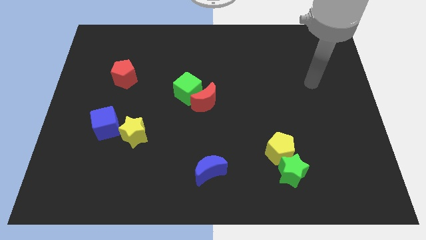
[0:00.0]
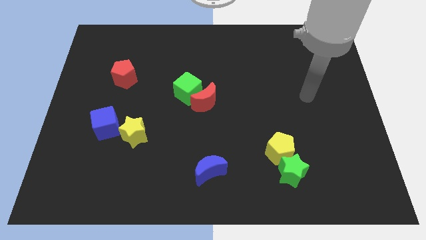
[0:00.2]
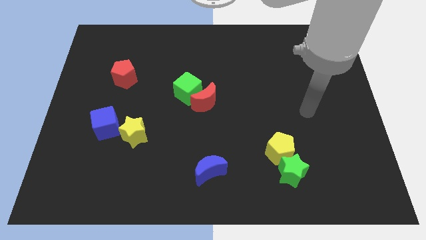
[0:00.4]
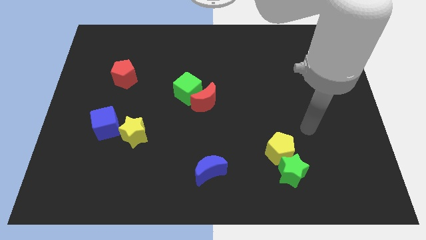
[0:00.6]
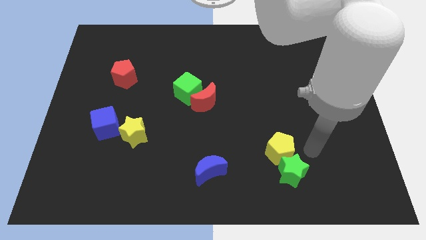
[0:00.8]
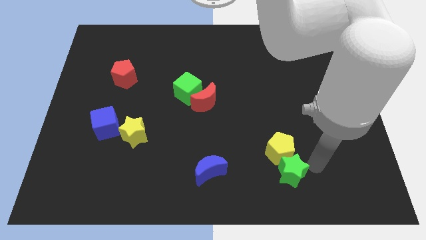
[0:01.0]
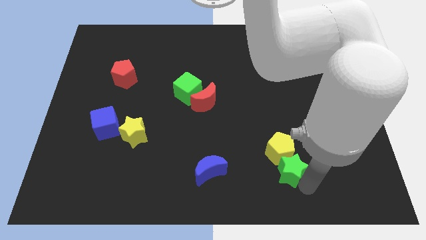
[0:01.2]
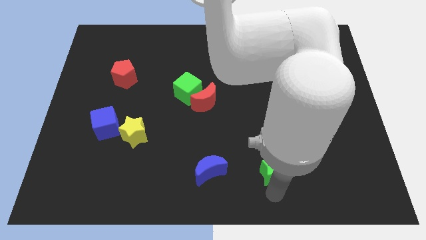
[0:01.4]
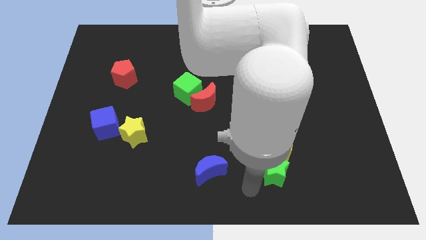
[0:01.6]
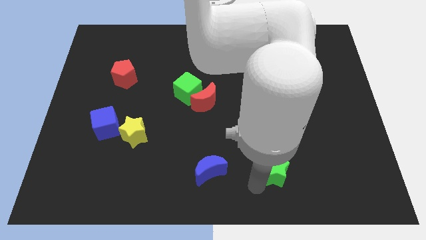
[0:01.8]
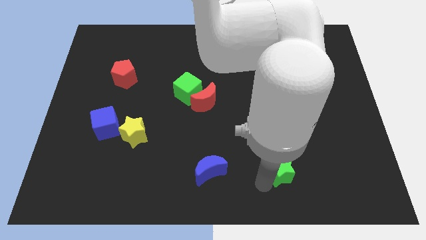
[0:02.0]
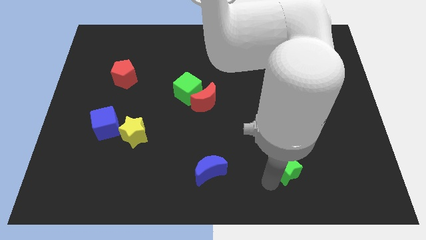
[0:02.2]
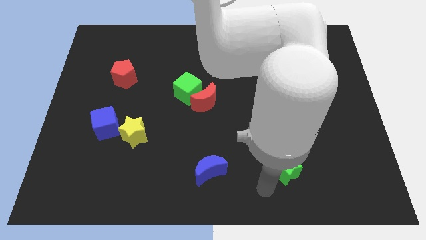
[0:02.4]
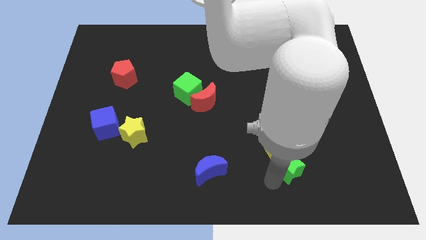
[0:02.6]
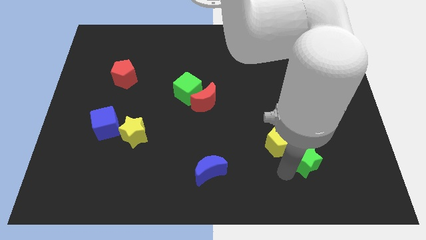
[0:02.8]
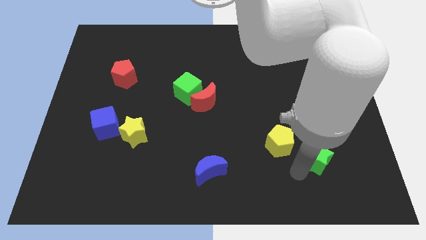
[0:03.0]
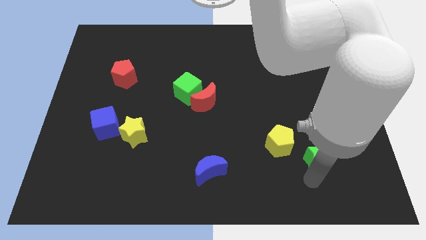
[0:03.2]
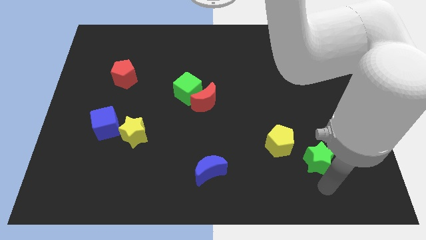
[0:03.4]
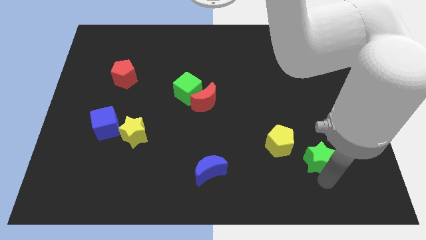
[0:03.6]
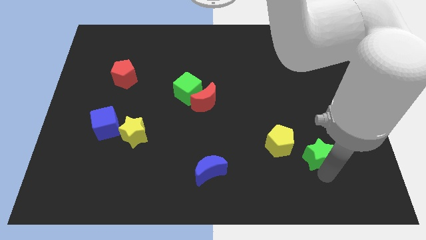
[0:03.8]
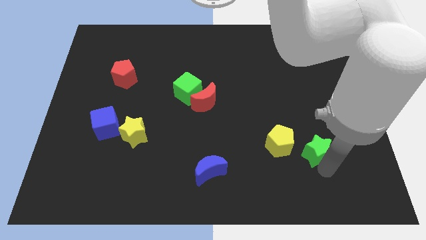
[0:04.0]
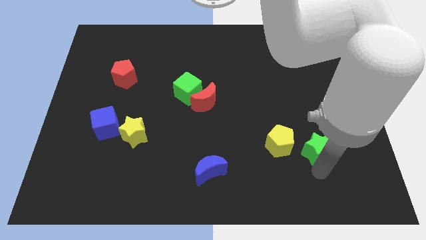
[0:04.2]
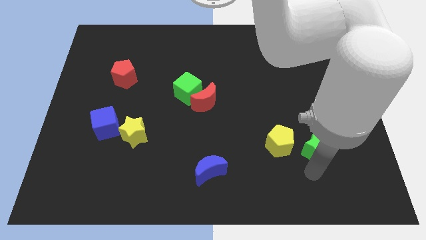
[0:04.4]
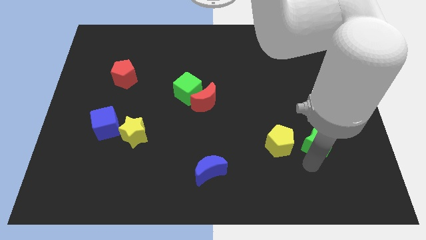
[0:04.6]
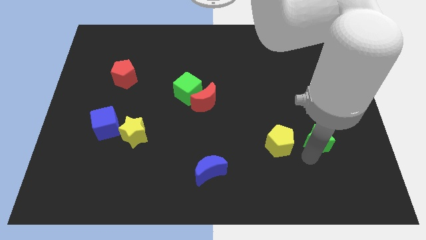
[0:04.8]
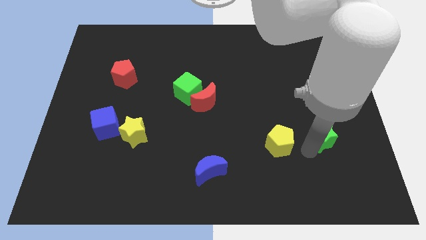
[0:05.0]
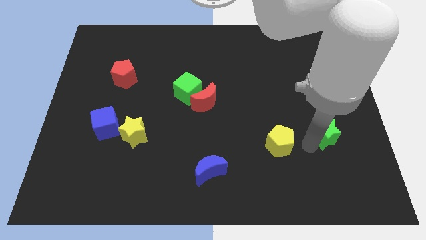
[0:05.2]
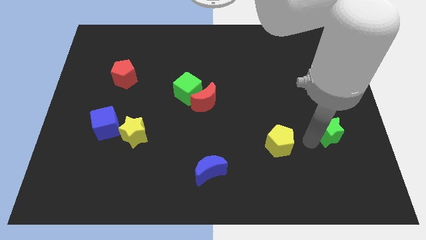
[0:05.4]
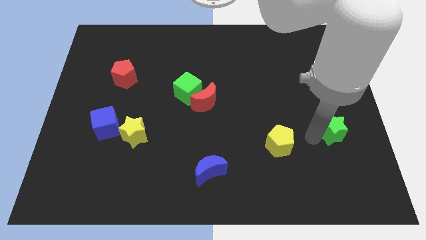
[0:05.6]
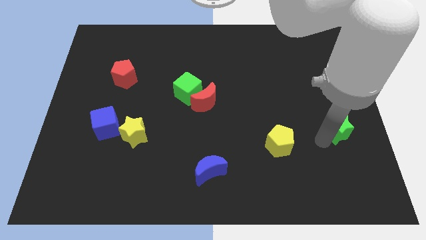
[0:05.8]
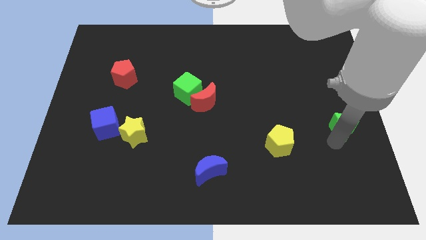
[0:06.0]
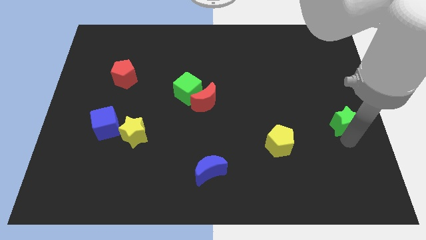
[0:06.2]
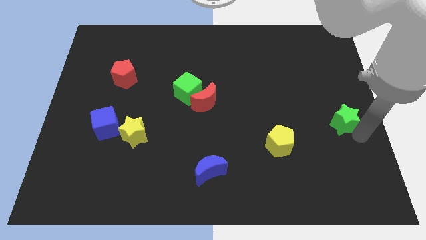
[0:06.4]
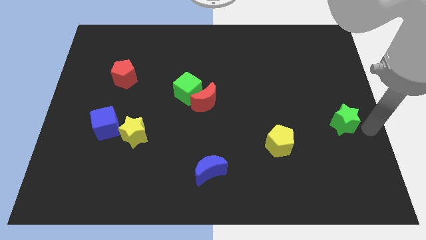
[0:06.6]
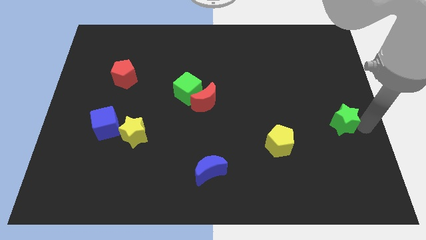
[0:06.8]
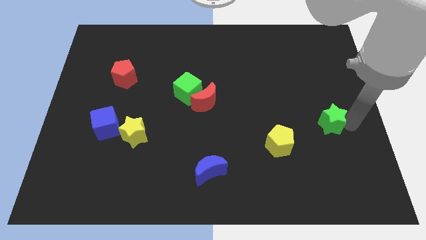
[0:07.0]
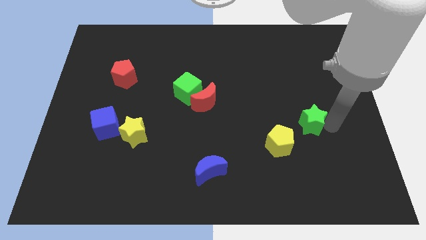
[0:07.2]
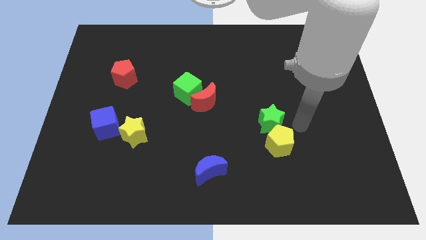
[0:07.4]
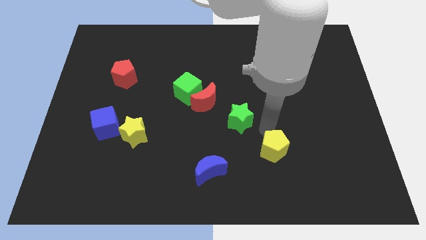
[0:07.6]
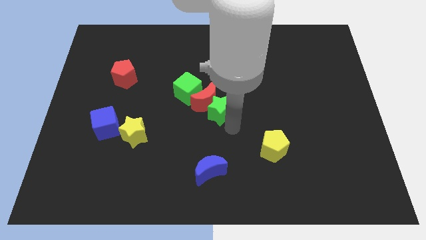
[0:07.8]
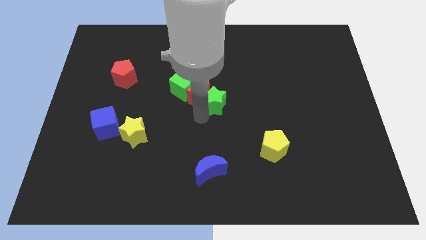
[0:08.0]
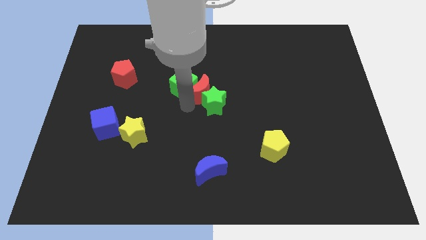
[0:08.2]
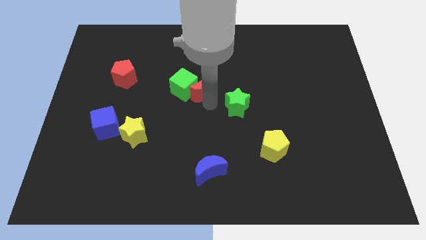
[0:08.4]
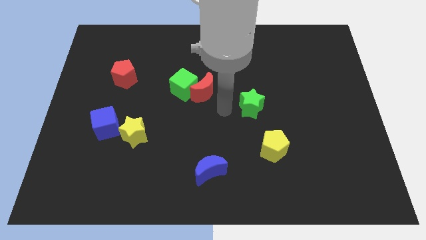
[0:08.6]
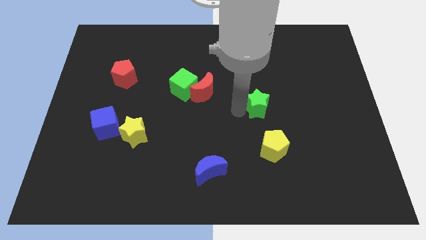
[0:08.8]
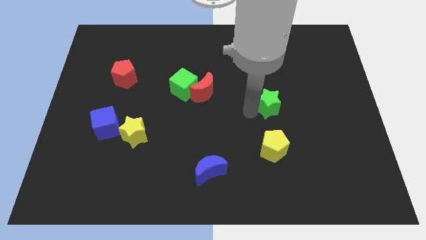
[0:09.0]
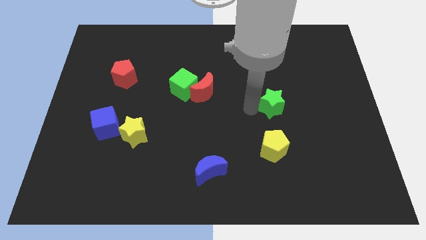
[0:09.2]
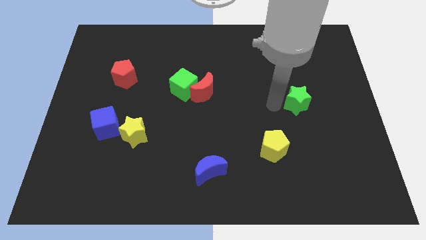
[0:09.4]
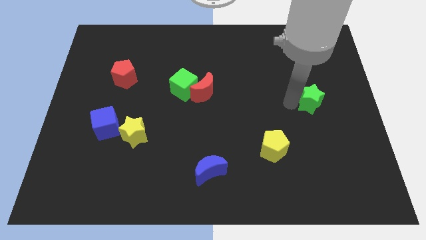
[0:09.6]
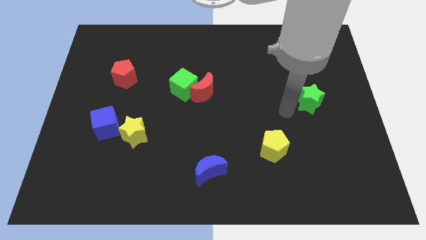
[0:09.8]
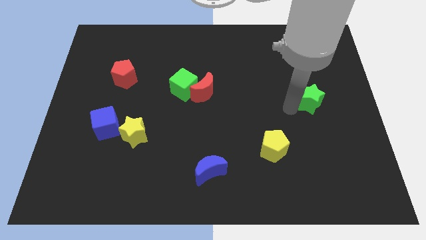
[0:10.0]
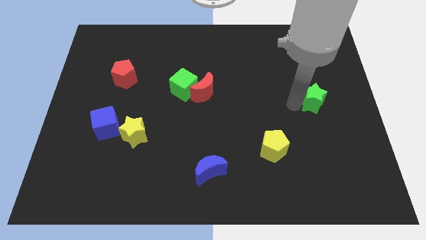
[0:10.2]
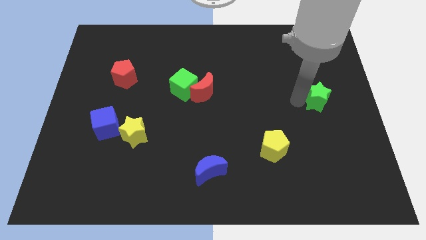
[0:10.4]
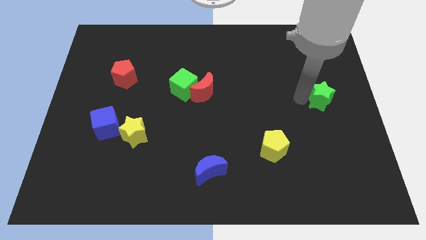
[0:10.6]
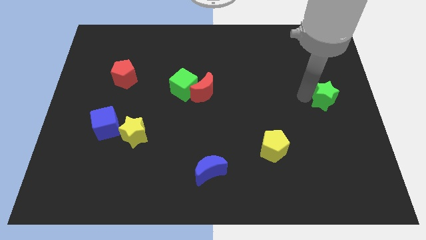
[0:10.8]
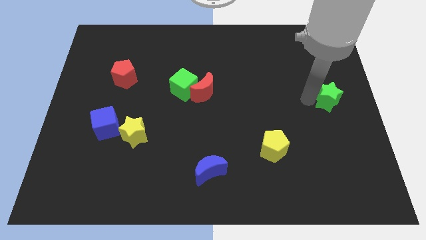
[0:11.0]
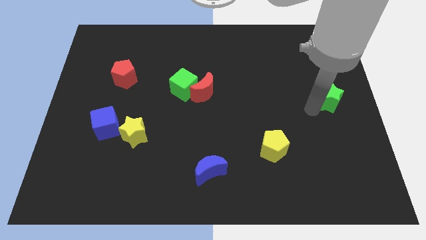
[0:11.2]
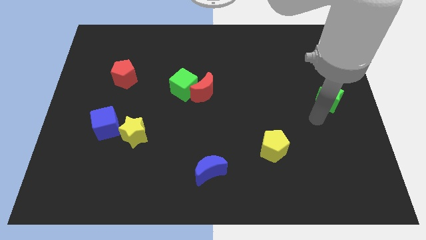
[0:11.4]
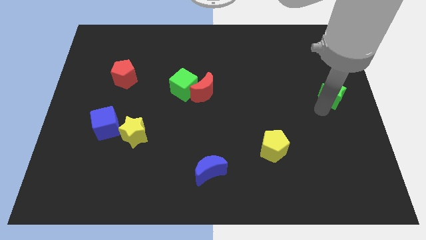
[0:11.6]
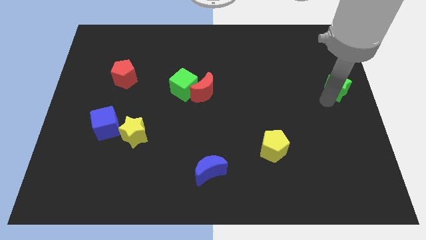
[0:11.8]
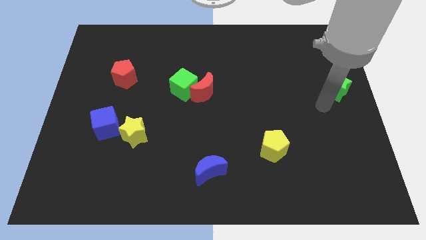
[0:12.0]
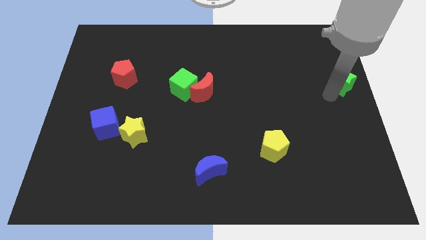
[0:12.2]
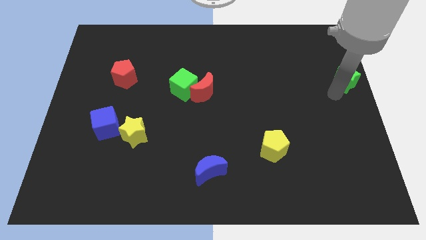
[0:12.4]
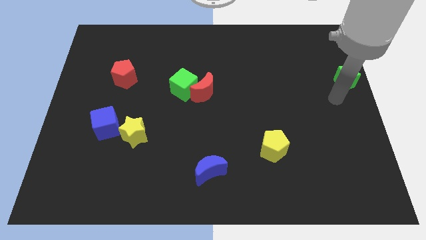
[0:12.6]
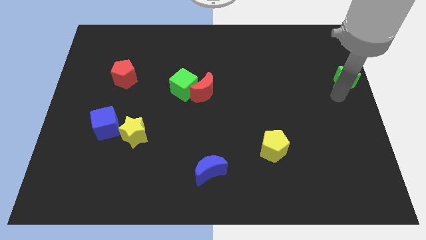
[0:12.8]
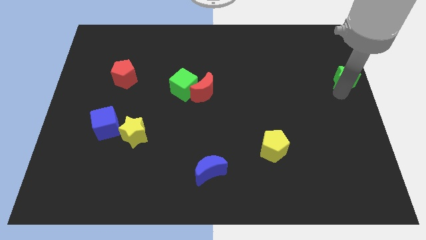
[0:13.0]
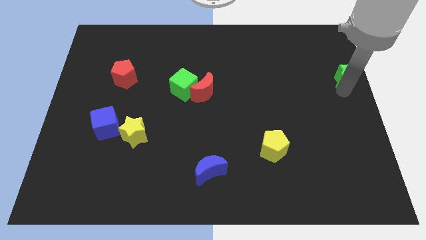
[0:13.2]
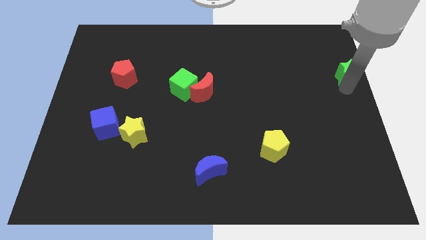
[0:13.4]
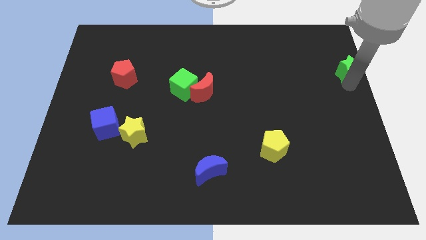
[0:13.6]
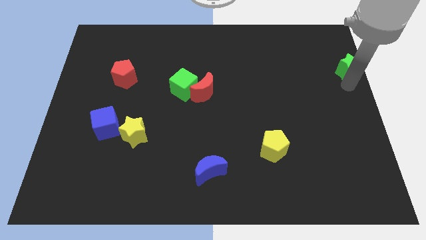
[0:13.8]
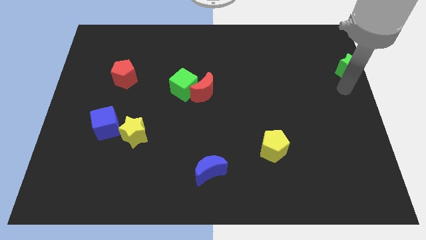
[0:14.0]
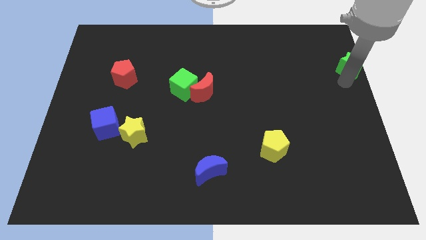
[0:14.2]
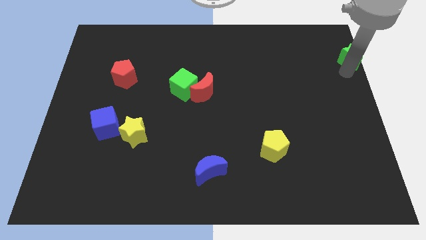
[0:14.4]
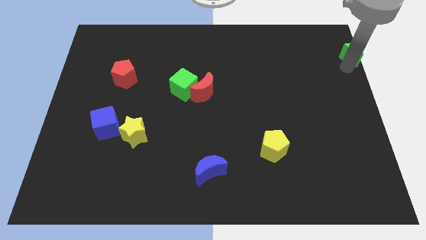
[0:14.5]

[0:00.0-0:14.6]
put the green star to the top right of the board
